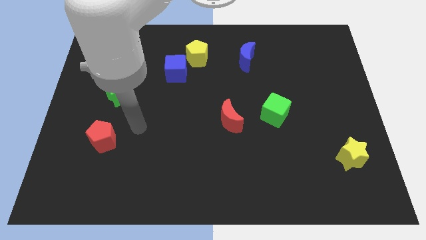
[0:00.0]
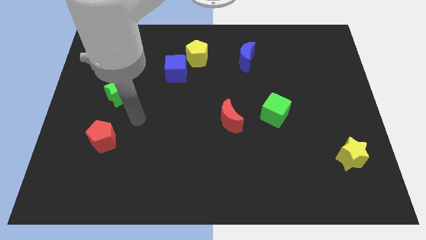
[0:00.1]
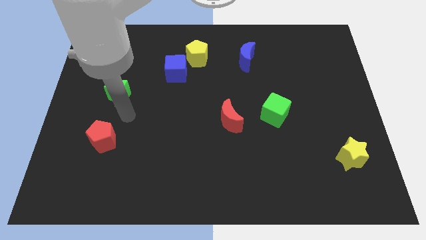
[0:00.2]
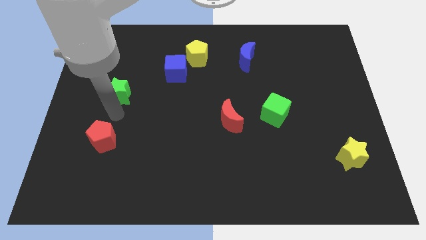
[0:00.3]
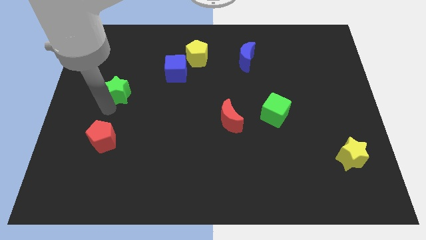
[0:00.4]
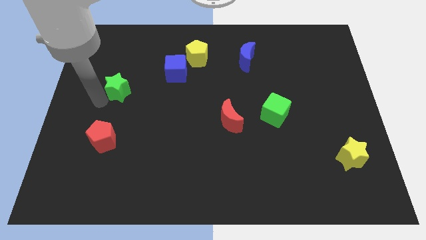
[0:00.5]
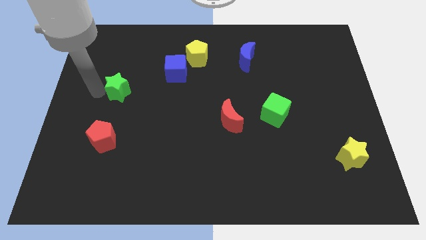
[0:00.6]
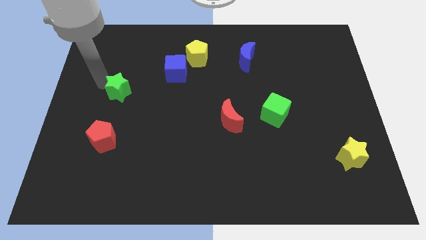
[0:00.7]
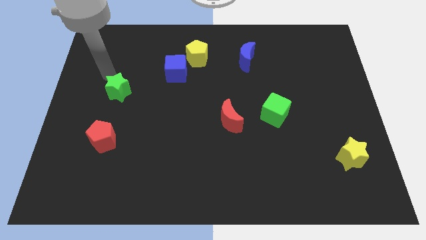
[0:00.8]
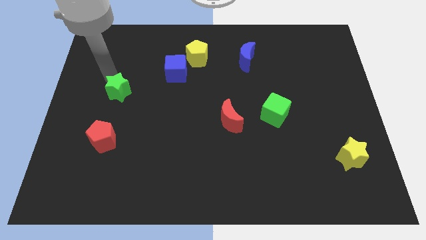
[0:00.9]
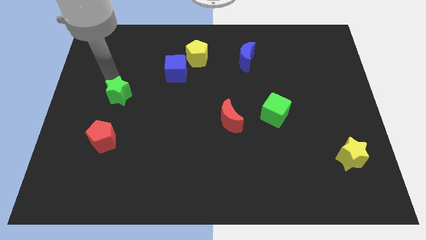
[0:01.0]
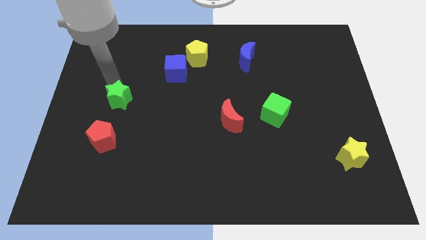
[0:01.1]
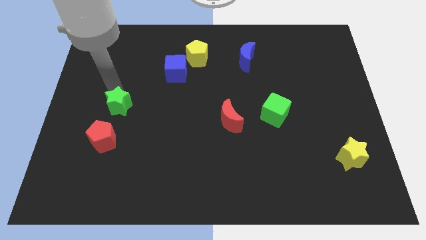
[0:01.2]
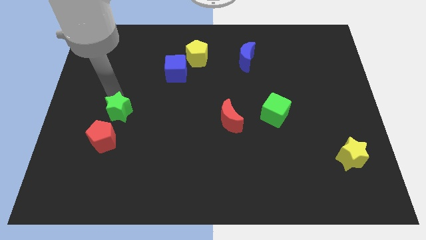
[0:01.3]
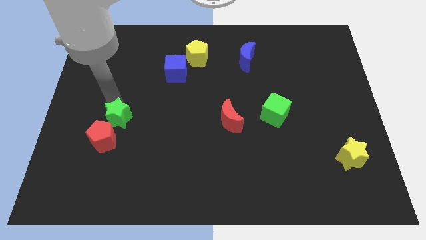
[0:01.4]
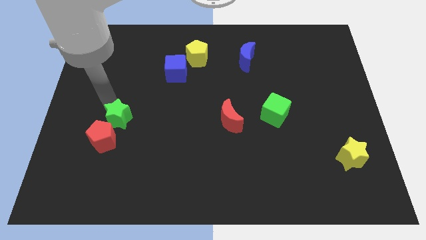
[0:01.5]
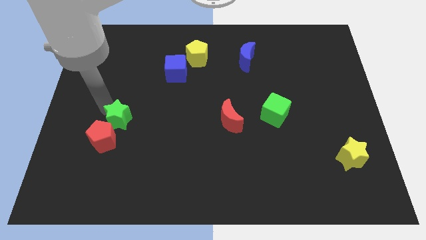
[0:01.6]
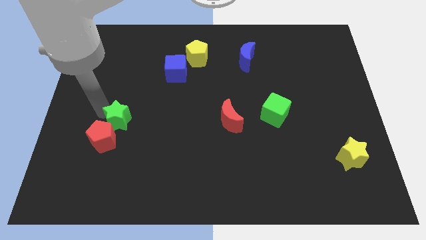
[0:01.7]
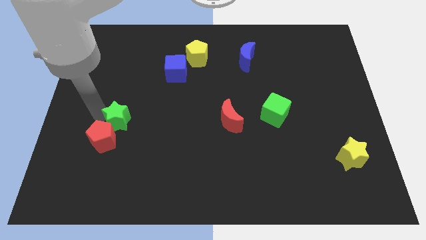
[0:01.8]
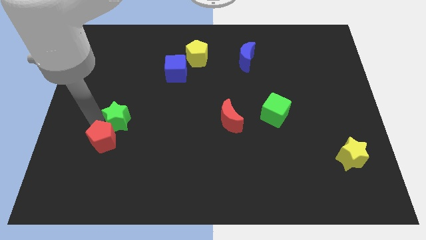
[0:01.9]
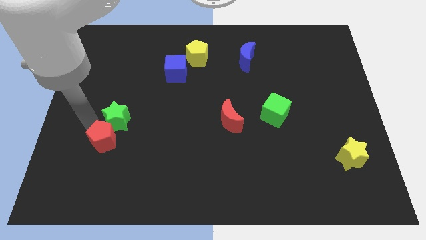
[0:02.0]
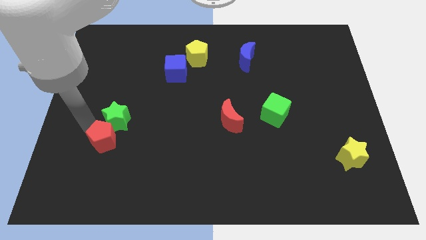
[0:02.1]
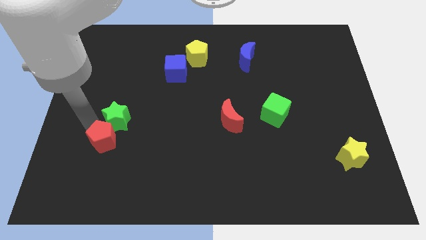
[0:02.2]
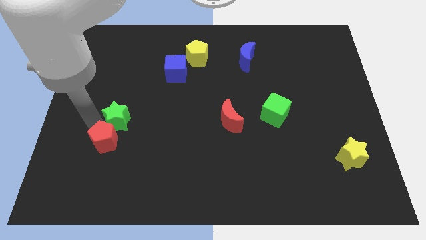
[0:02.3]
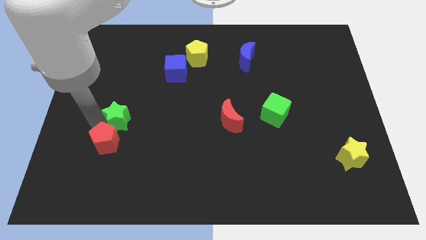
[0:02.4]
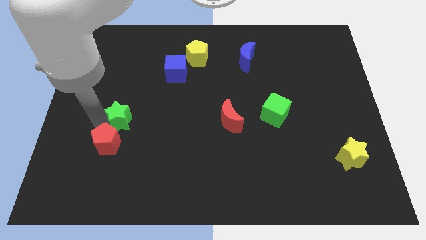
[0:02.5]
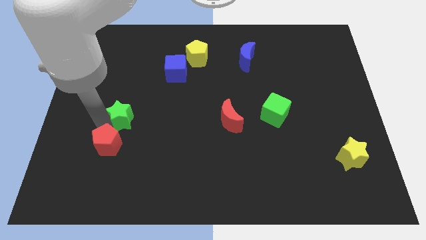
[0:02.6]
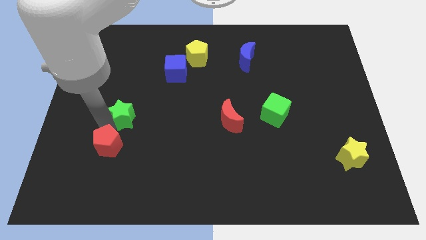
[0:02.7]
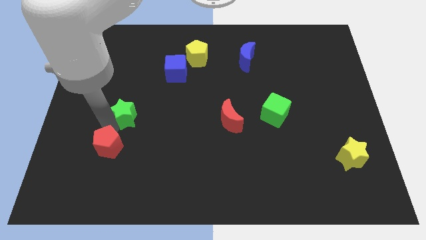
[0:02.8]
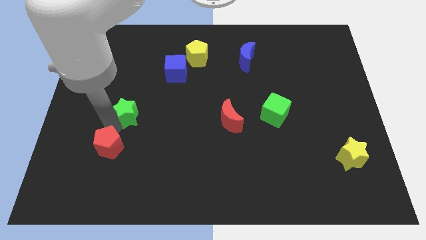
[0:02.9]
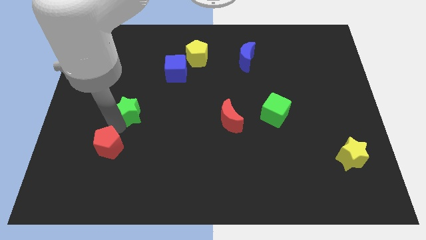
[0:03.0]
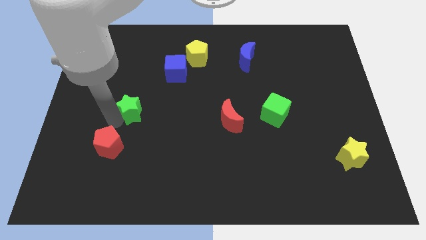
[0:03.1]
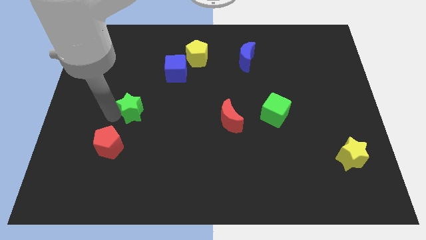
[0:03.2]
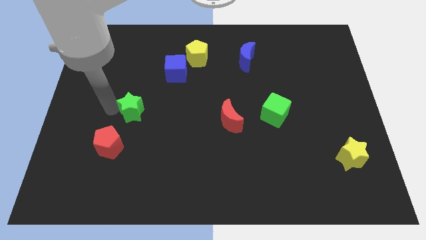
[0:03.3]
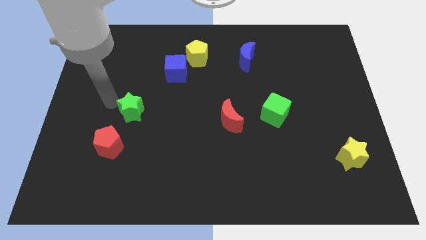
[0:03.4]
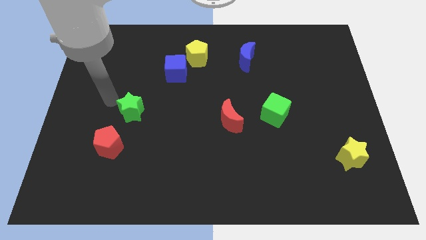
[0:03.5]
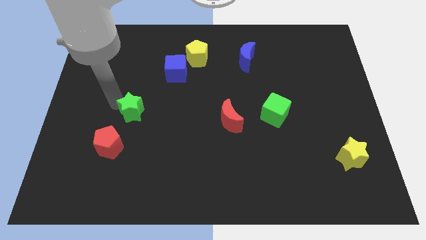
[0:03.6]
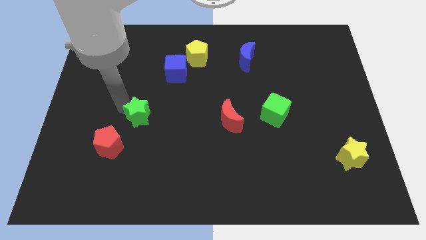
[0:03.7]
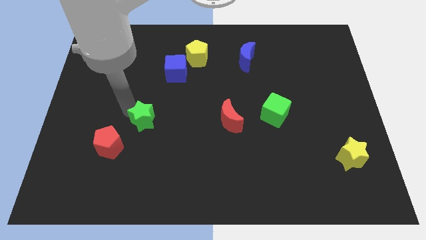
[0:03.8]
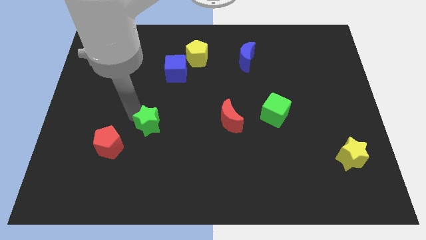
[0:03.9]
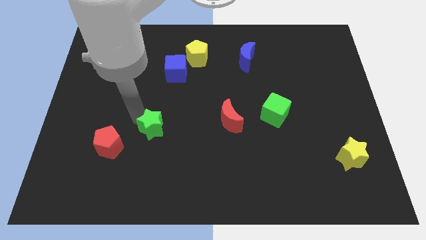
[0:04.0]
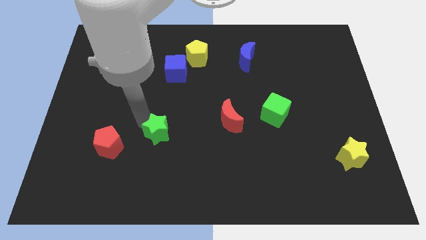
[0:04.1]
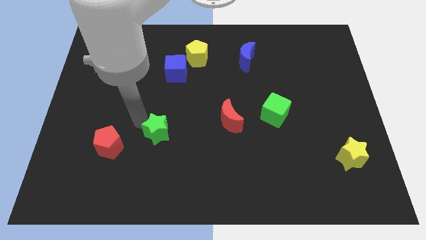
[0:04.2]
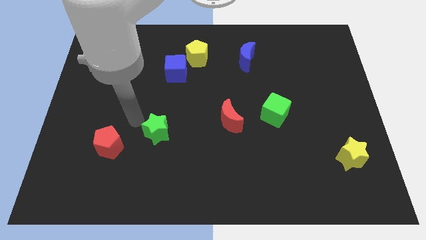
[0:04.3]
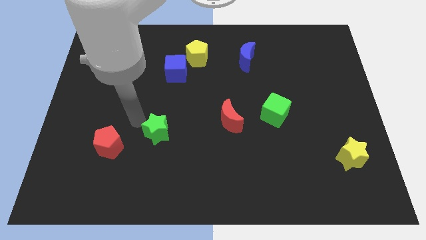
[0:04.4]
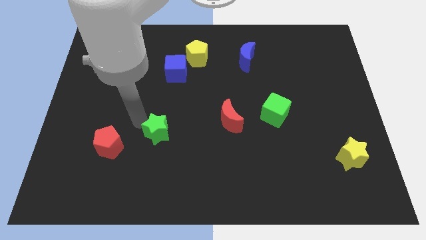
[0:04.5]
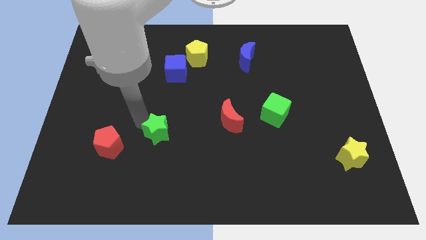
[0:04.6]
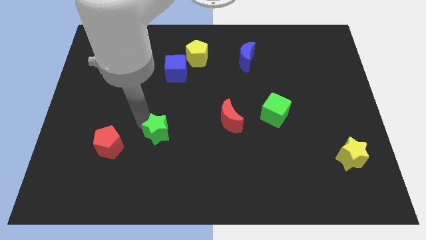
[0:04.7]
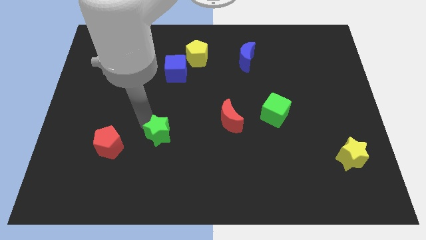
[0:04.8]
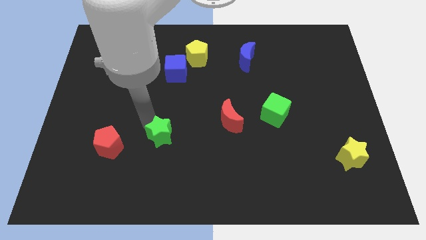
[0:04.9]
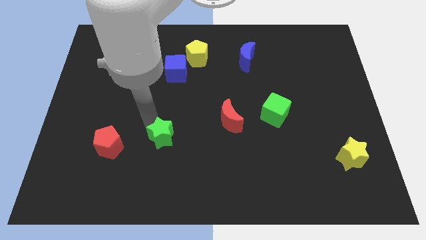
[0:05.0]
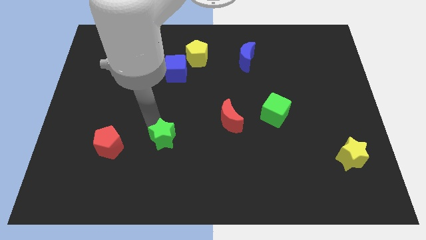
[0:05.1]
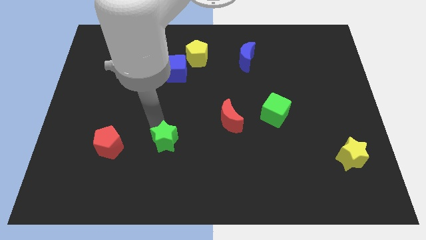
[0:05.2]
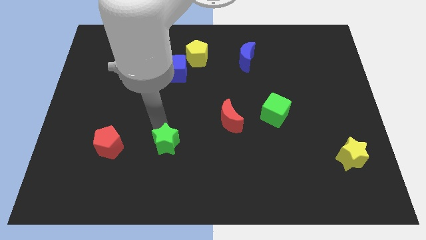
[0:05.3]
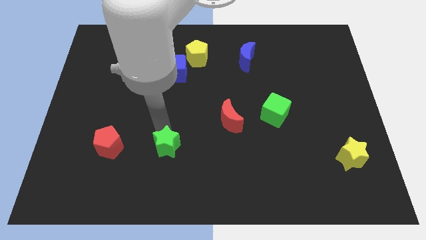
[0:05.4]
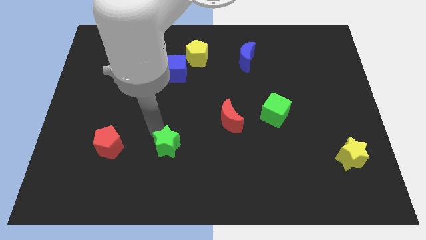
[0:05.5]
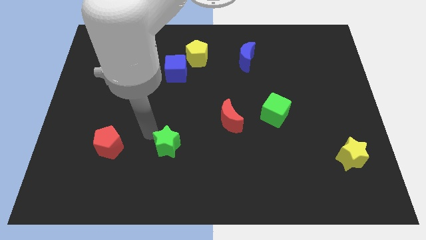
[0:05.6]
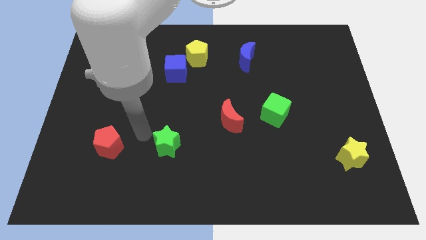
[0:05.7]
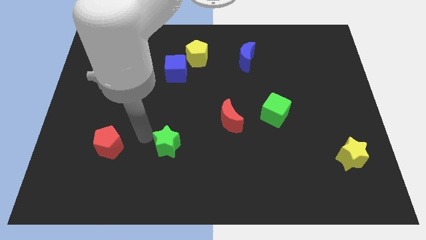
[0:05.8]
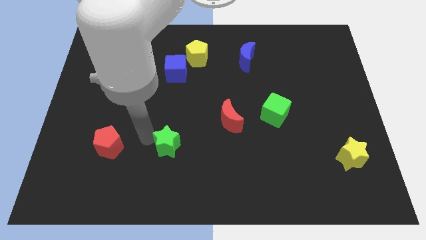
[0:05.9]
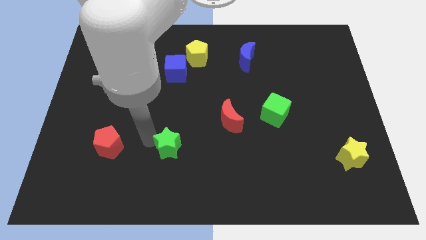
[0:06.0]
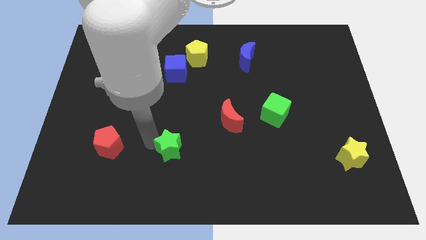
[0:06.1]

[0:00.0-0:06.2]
push the green star down and then right

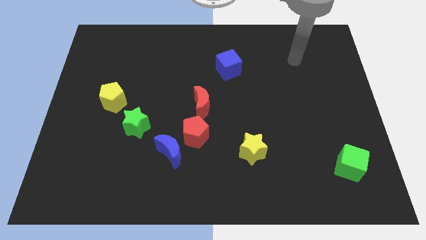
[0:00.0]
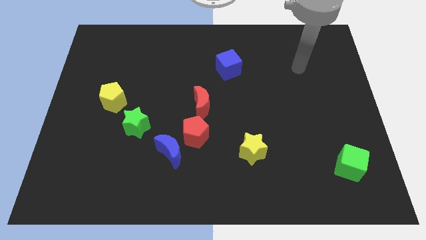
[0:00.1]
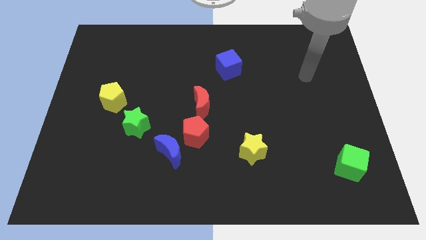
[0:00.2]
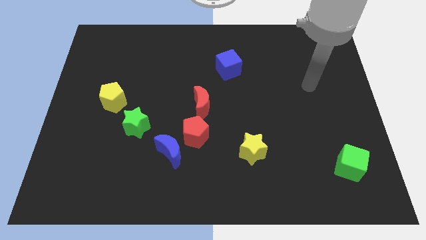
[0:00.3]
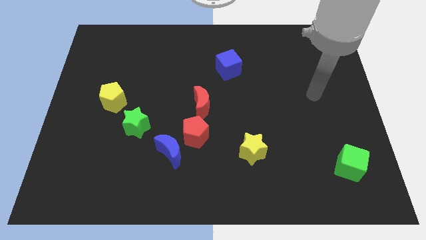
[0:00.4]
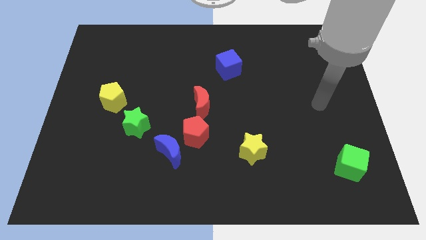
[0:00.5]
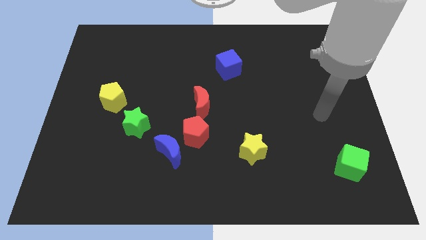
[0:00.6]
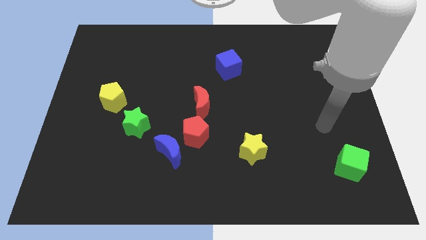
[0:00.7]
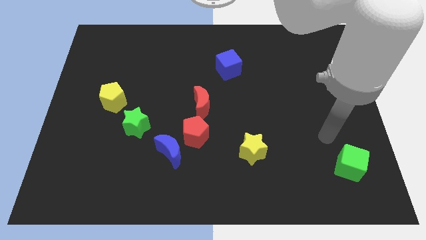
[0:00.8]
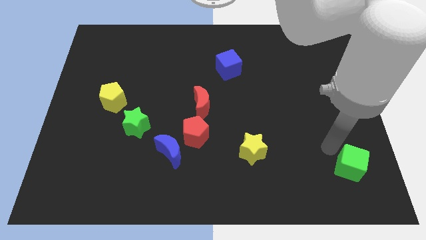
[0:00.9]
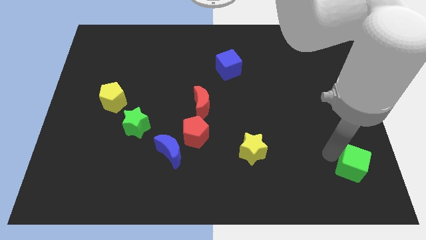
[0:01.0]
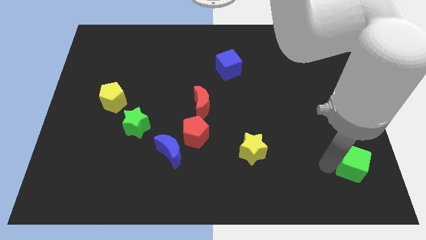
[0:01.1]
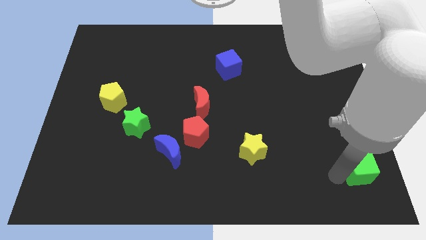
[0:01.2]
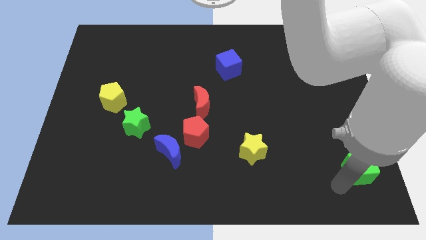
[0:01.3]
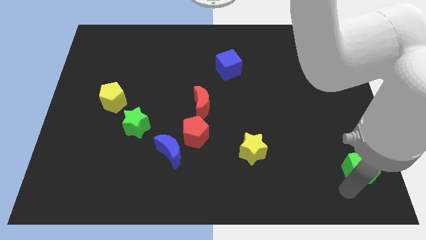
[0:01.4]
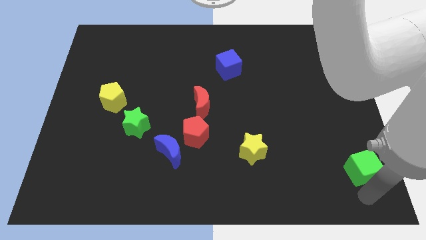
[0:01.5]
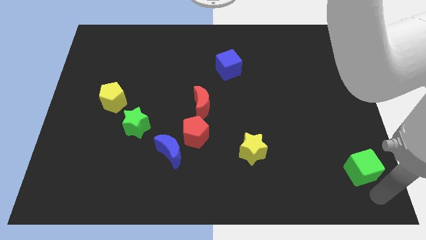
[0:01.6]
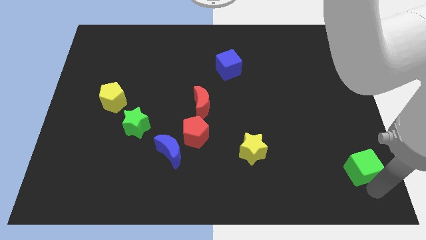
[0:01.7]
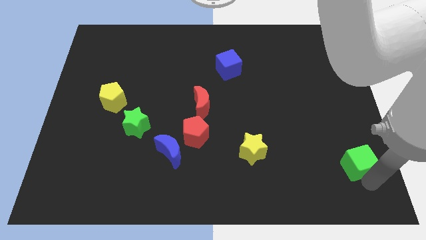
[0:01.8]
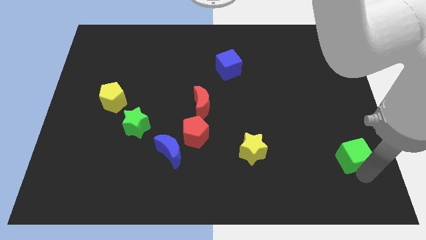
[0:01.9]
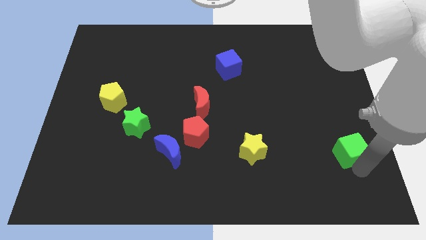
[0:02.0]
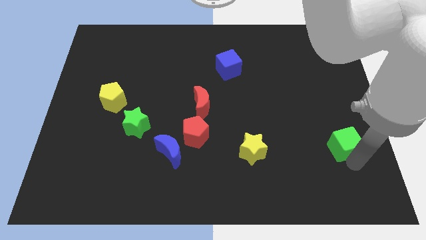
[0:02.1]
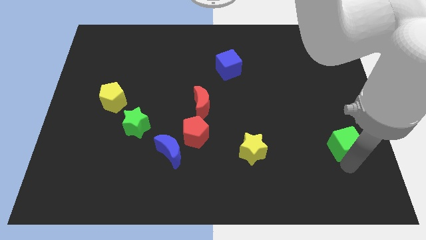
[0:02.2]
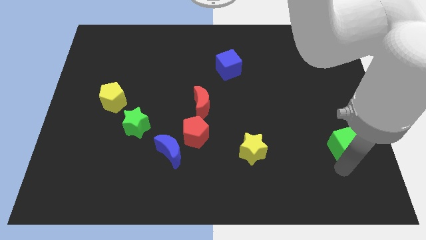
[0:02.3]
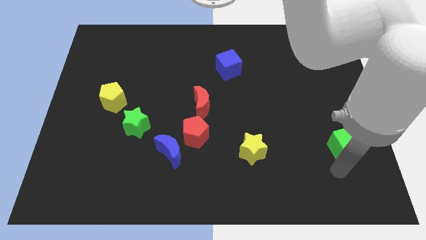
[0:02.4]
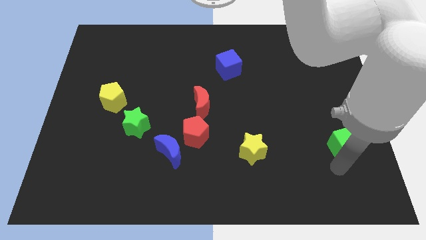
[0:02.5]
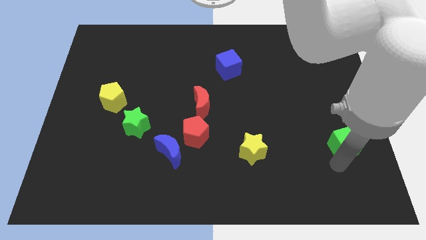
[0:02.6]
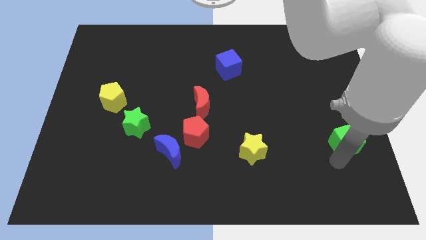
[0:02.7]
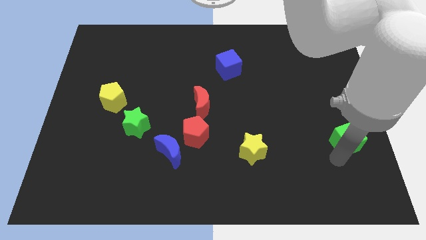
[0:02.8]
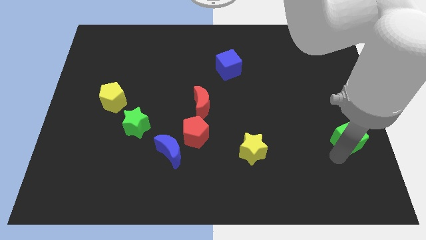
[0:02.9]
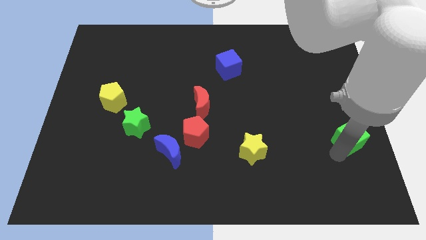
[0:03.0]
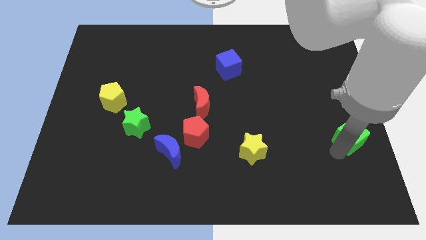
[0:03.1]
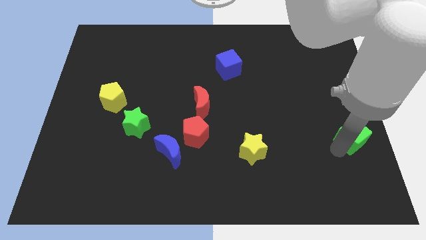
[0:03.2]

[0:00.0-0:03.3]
move the green cube up a bit
